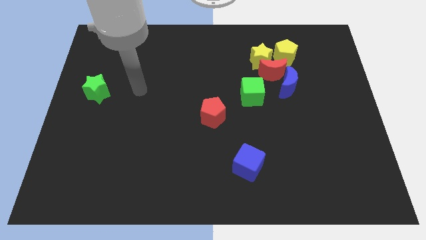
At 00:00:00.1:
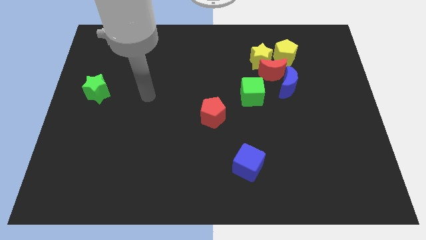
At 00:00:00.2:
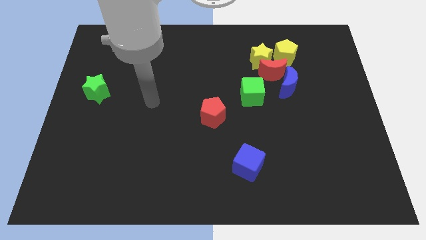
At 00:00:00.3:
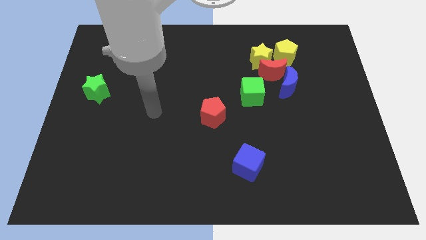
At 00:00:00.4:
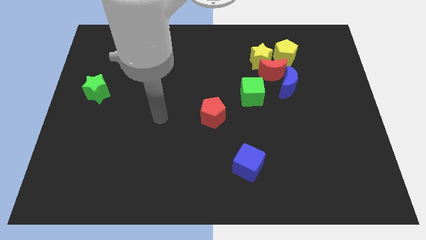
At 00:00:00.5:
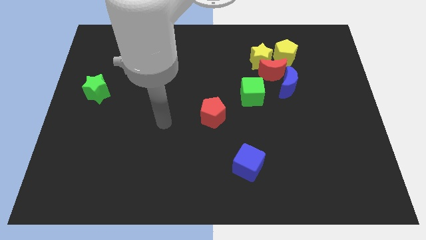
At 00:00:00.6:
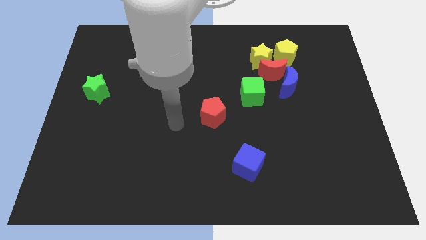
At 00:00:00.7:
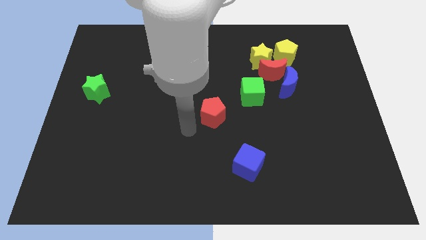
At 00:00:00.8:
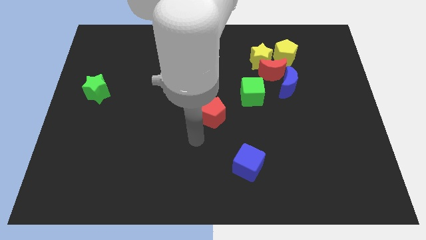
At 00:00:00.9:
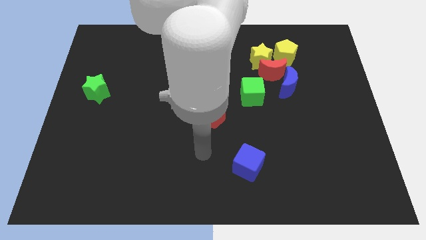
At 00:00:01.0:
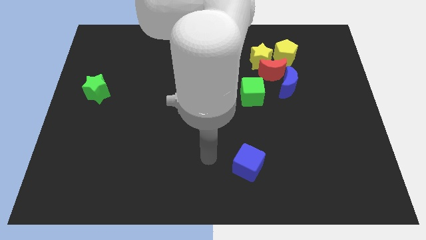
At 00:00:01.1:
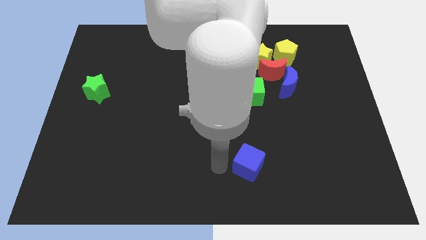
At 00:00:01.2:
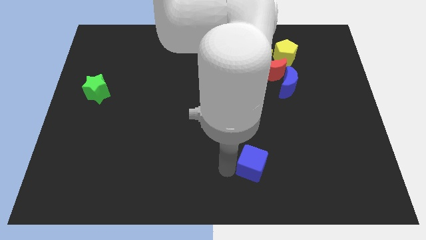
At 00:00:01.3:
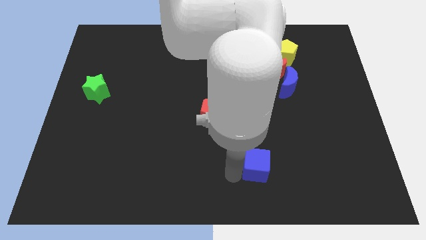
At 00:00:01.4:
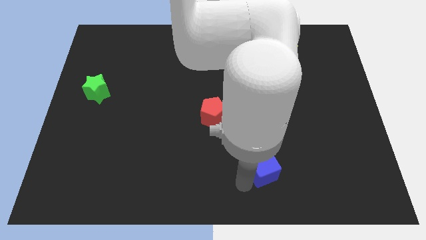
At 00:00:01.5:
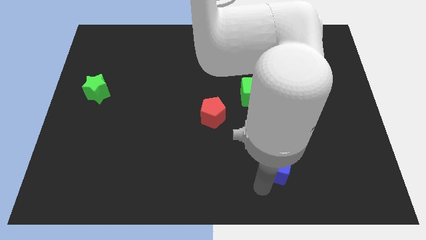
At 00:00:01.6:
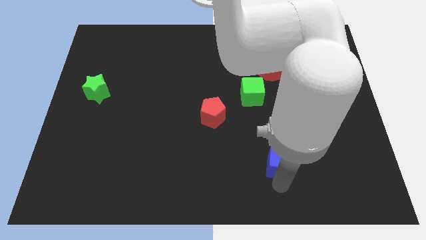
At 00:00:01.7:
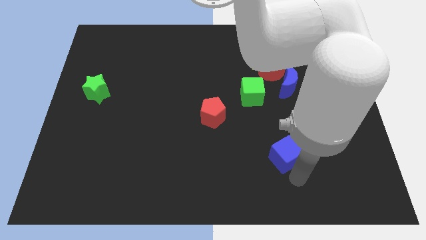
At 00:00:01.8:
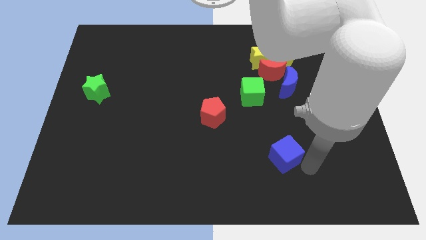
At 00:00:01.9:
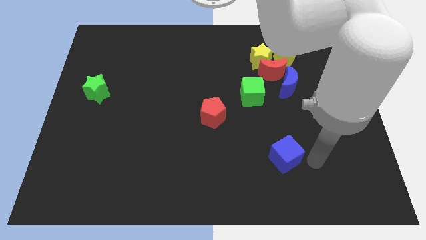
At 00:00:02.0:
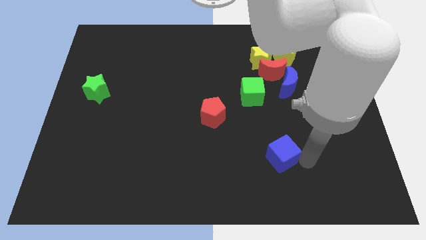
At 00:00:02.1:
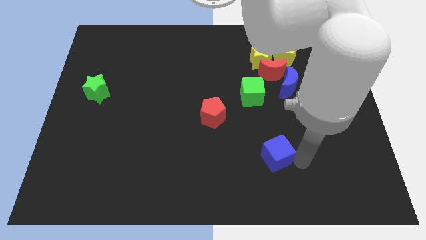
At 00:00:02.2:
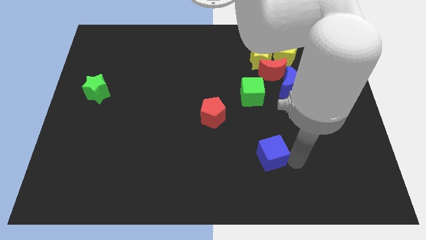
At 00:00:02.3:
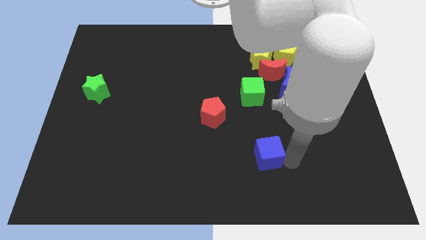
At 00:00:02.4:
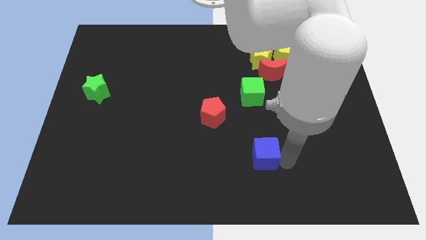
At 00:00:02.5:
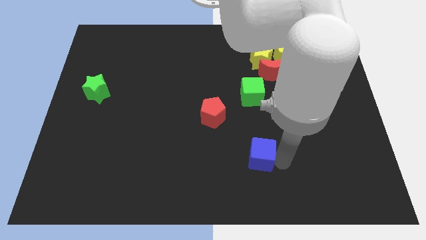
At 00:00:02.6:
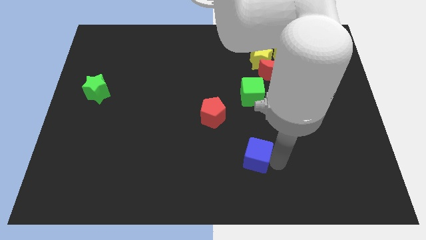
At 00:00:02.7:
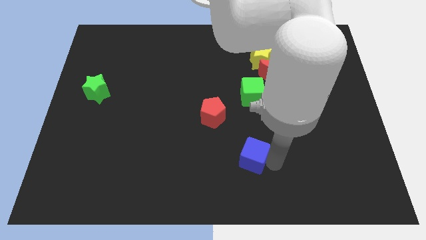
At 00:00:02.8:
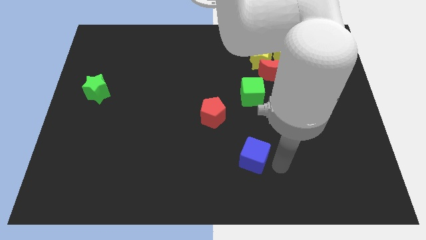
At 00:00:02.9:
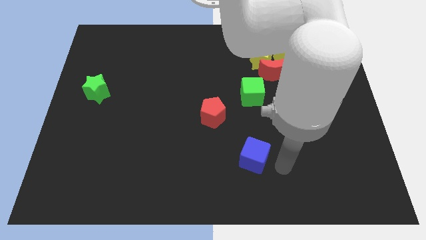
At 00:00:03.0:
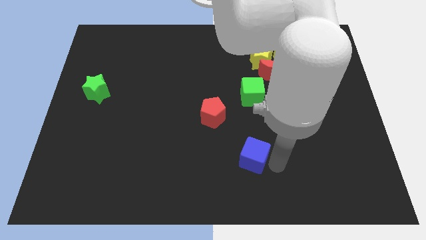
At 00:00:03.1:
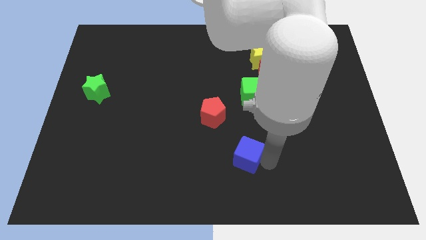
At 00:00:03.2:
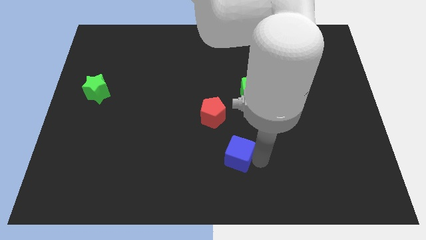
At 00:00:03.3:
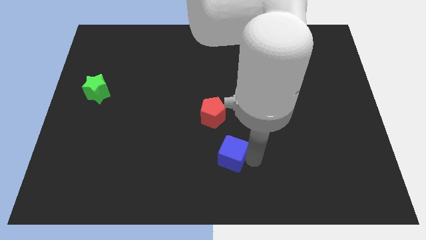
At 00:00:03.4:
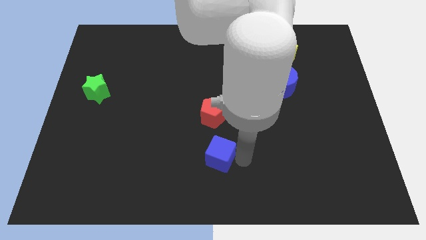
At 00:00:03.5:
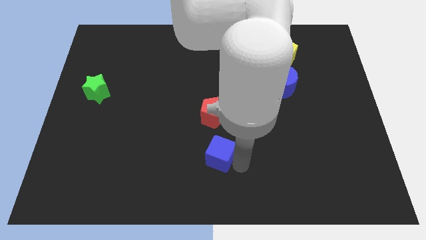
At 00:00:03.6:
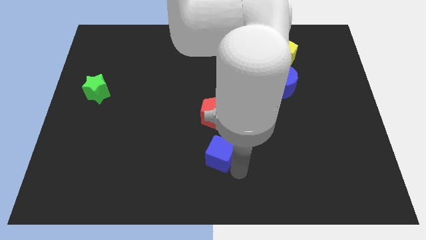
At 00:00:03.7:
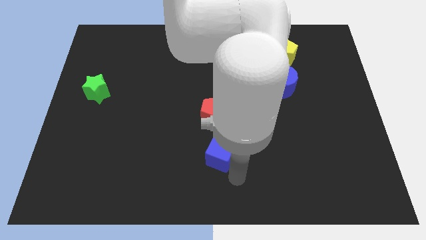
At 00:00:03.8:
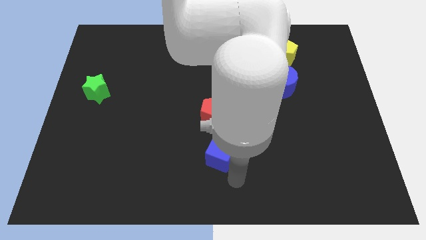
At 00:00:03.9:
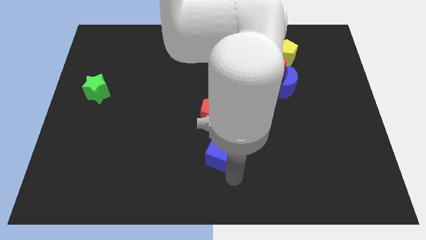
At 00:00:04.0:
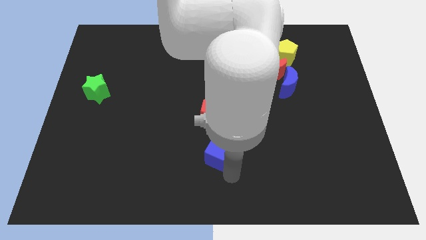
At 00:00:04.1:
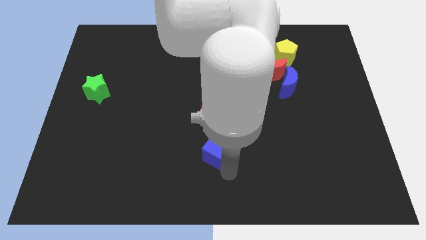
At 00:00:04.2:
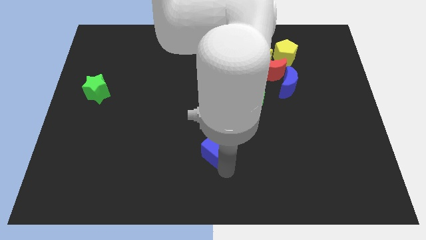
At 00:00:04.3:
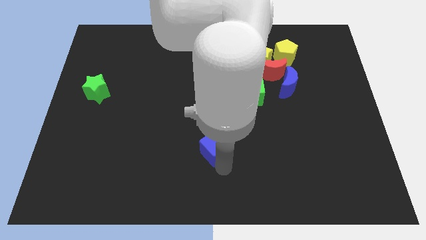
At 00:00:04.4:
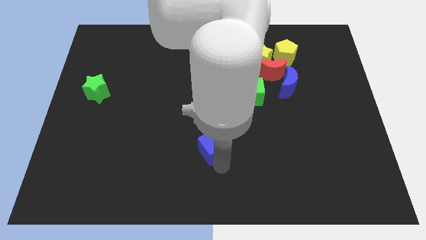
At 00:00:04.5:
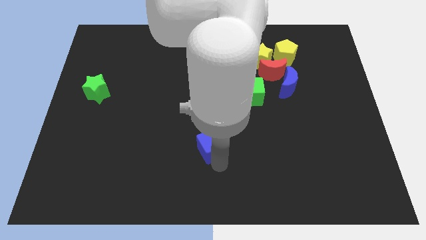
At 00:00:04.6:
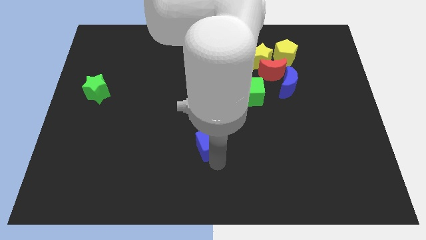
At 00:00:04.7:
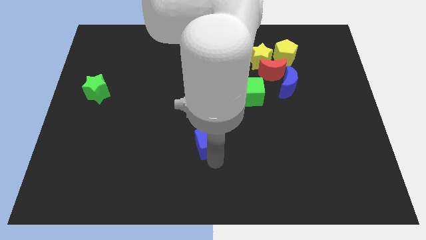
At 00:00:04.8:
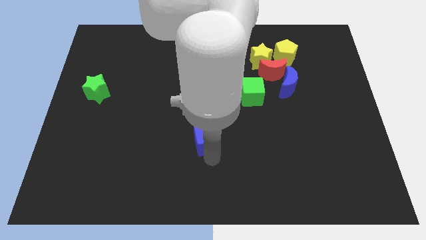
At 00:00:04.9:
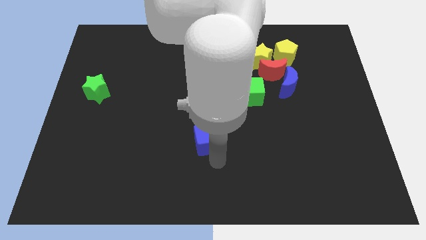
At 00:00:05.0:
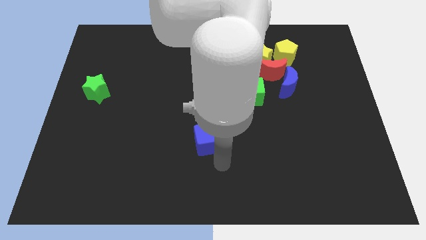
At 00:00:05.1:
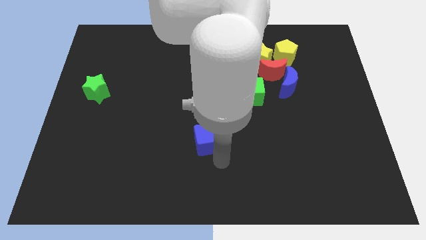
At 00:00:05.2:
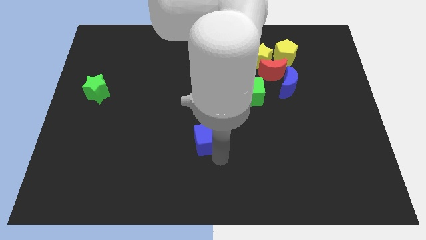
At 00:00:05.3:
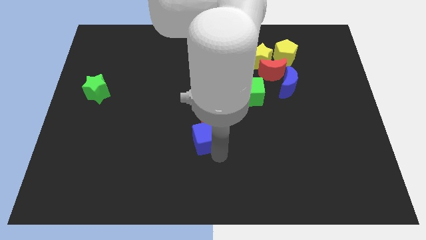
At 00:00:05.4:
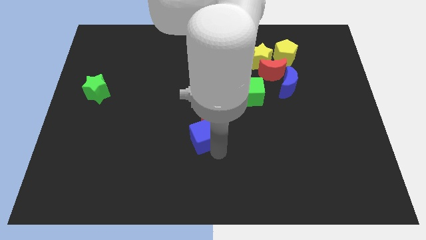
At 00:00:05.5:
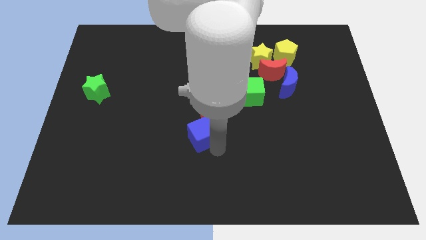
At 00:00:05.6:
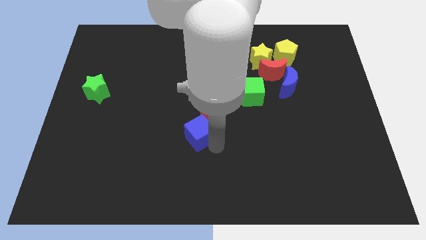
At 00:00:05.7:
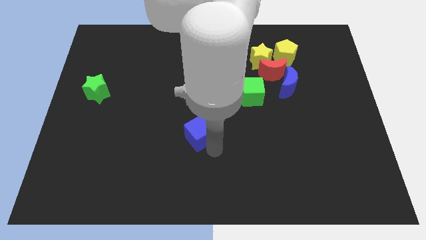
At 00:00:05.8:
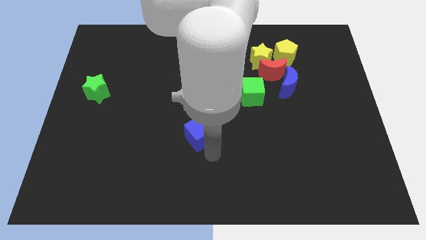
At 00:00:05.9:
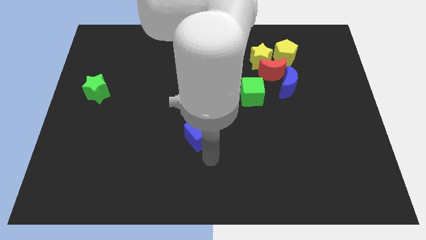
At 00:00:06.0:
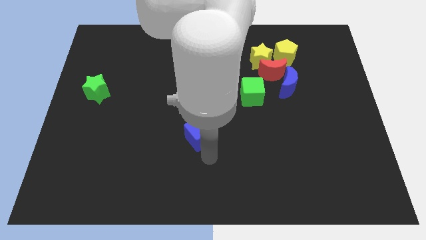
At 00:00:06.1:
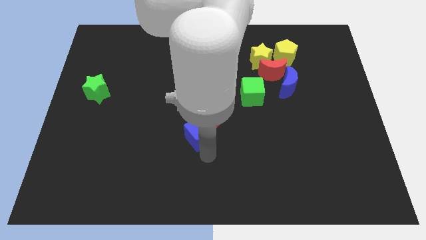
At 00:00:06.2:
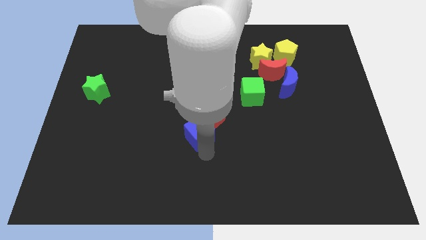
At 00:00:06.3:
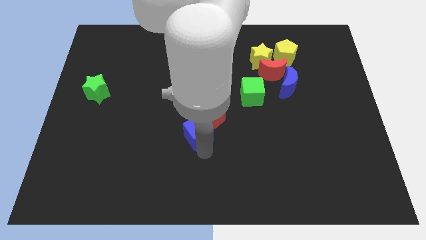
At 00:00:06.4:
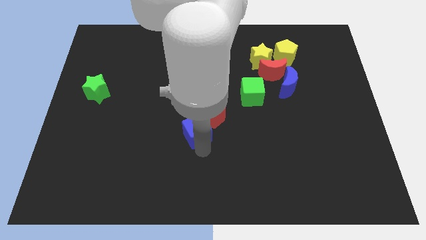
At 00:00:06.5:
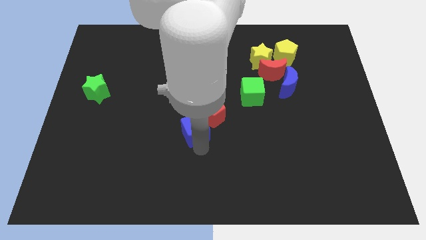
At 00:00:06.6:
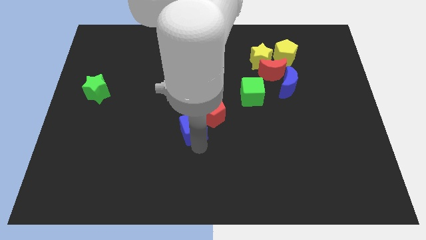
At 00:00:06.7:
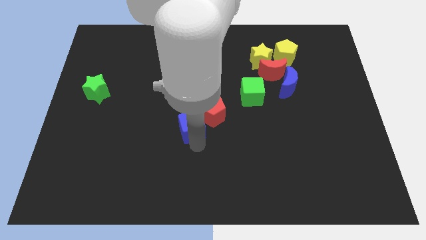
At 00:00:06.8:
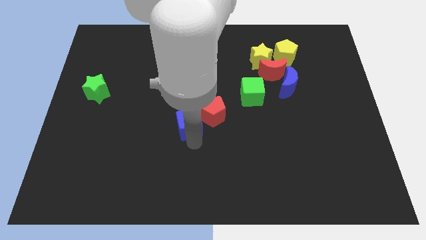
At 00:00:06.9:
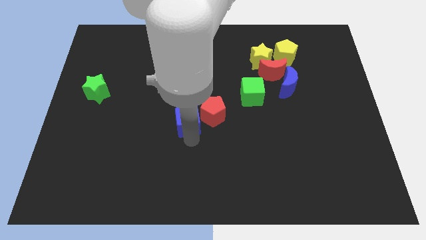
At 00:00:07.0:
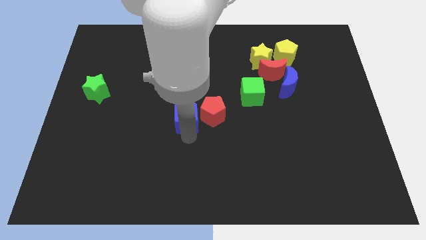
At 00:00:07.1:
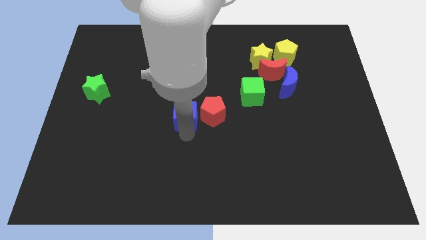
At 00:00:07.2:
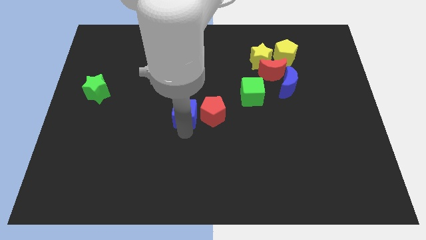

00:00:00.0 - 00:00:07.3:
move the blue cube to the top left side of the red pentagon
